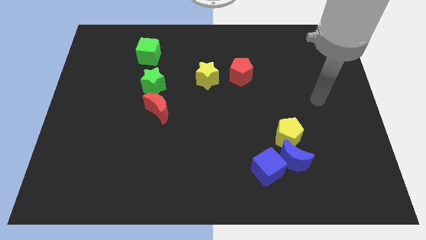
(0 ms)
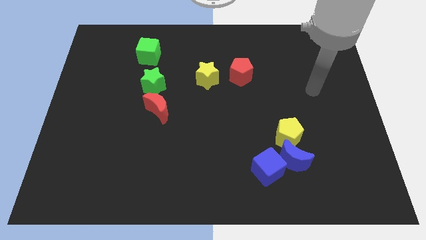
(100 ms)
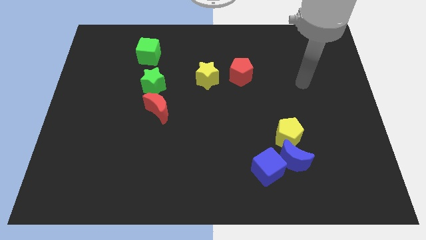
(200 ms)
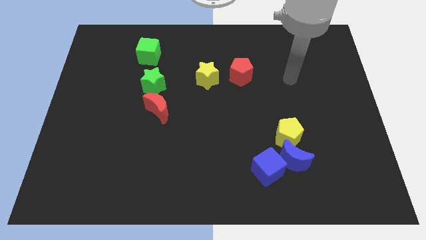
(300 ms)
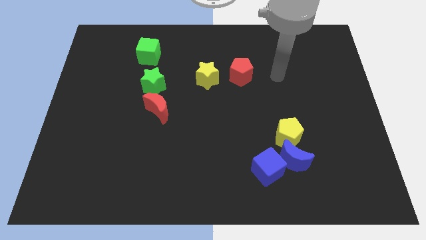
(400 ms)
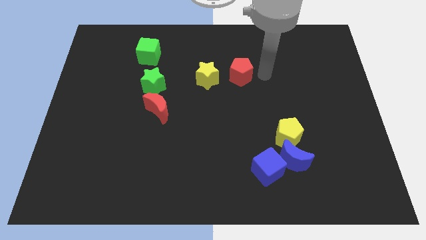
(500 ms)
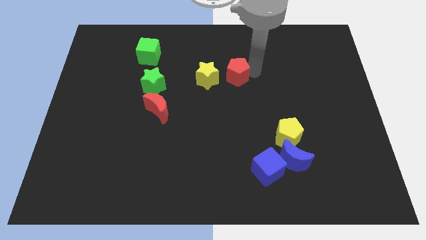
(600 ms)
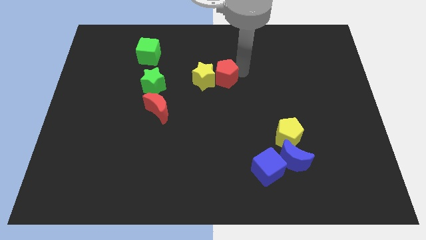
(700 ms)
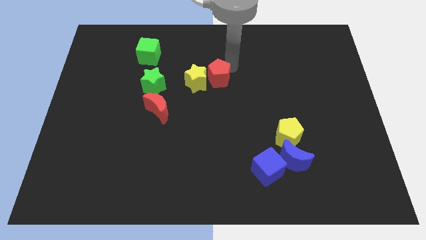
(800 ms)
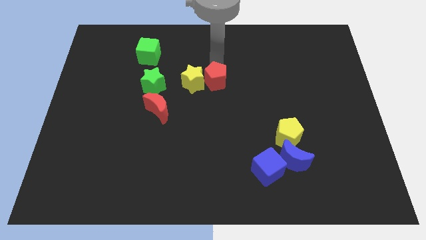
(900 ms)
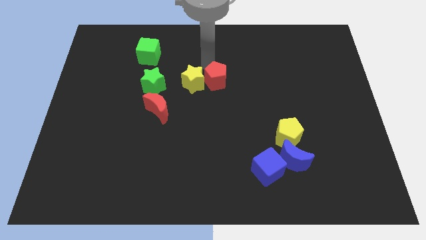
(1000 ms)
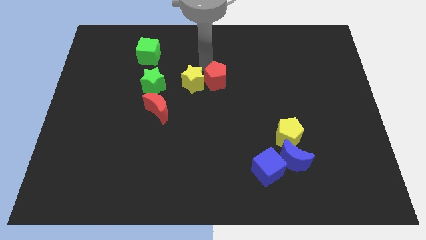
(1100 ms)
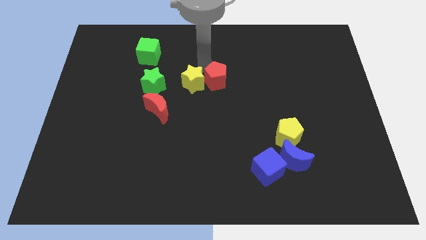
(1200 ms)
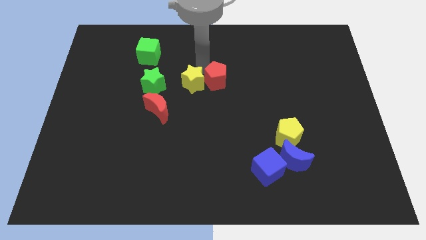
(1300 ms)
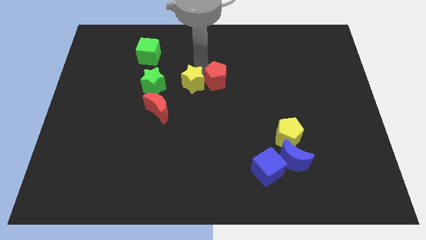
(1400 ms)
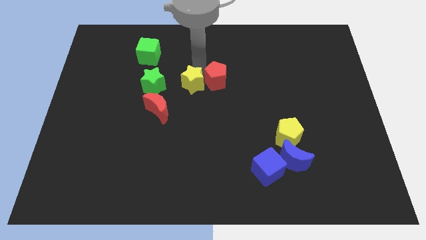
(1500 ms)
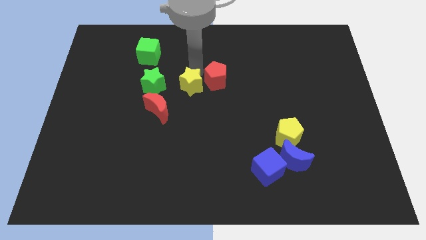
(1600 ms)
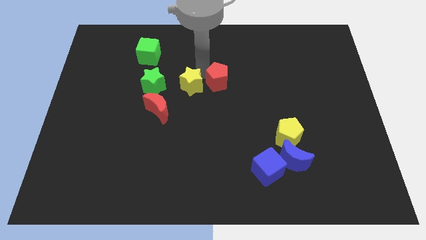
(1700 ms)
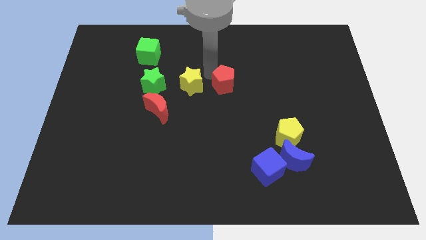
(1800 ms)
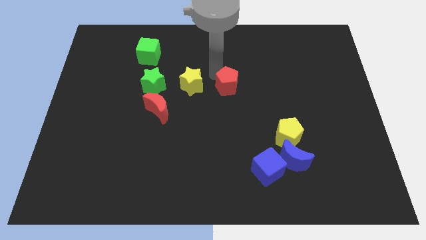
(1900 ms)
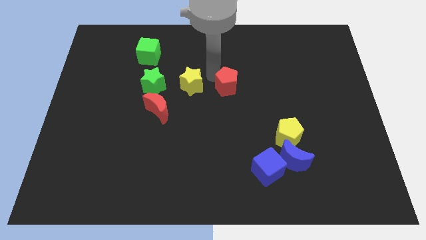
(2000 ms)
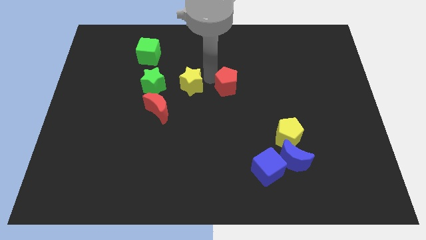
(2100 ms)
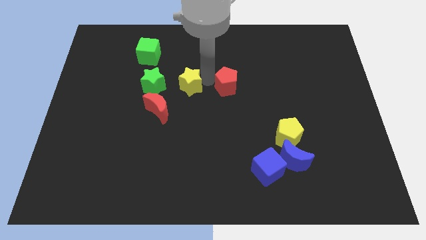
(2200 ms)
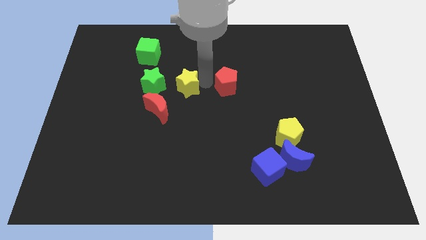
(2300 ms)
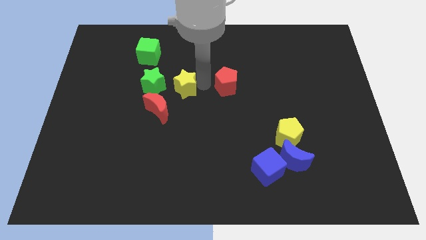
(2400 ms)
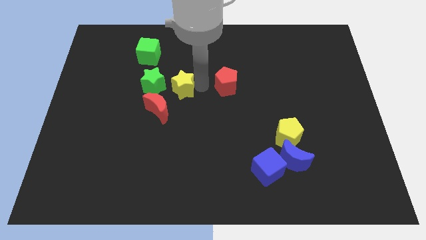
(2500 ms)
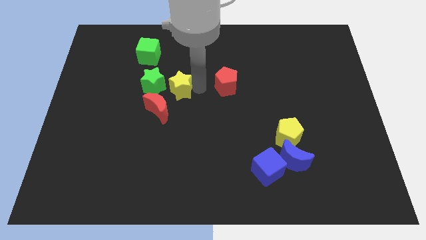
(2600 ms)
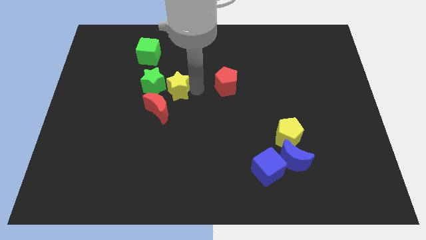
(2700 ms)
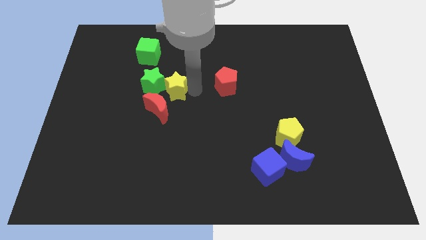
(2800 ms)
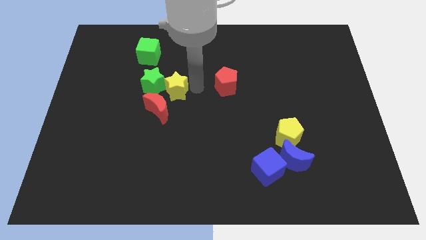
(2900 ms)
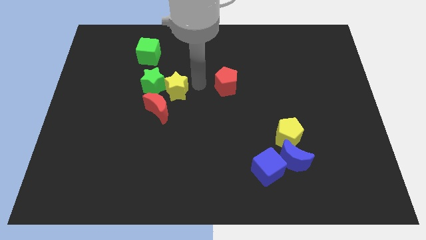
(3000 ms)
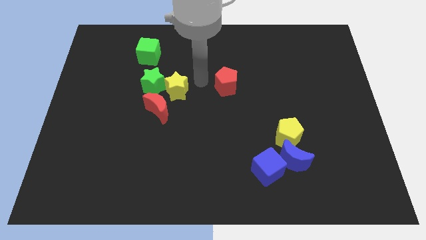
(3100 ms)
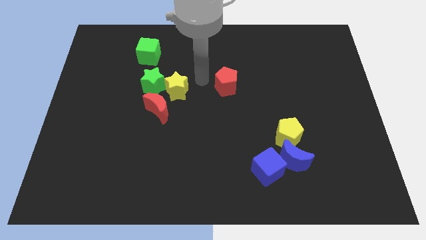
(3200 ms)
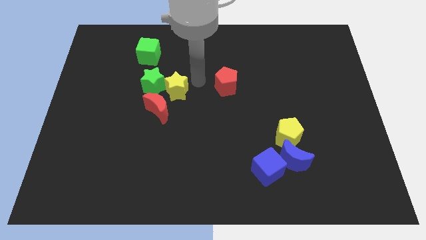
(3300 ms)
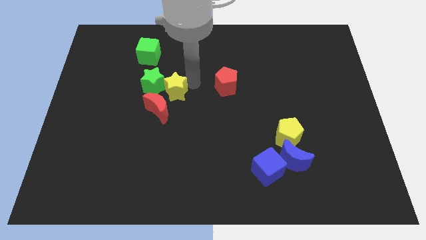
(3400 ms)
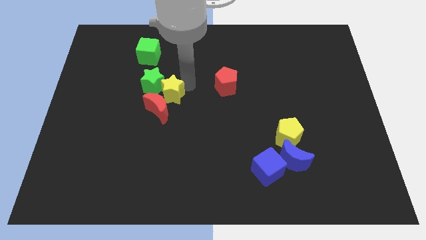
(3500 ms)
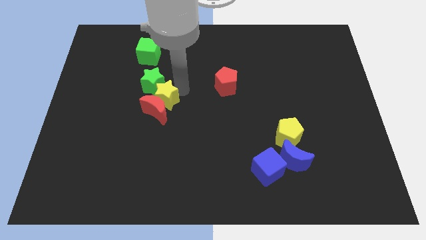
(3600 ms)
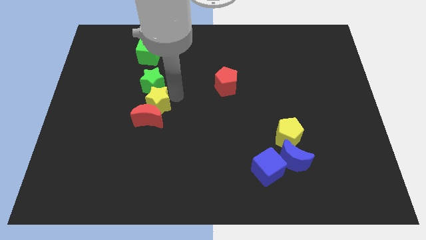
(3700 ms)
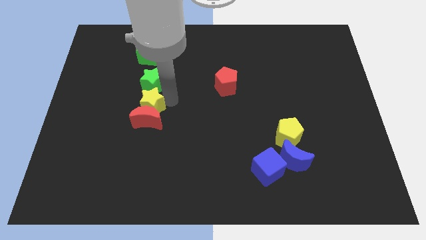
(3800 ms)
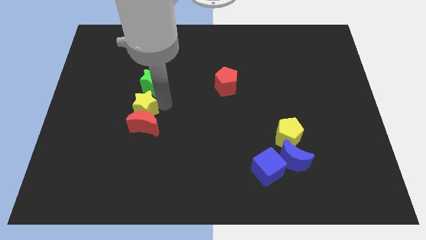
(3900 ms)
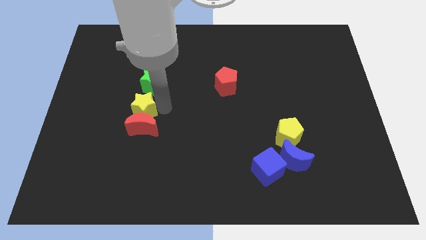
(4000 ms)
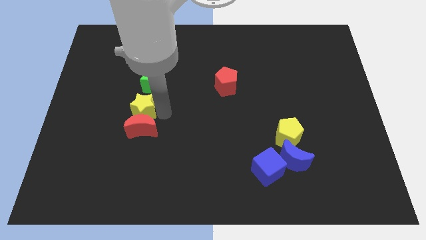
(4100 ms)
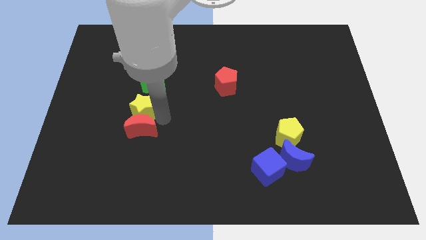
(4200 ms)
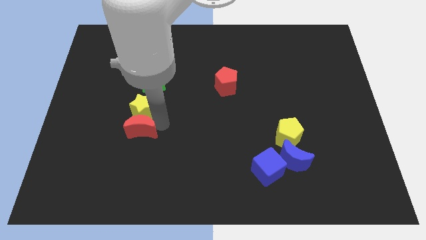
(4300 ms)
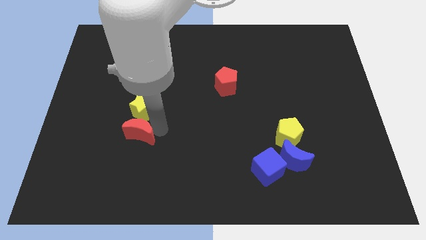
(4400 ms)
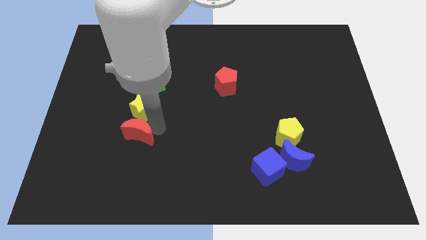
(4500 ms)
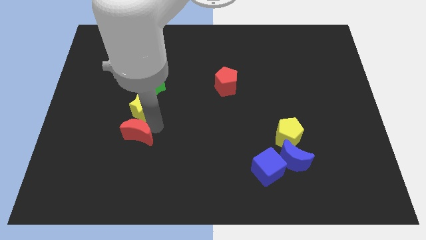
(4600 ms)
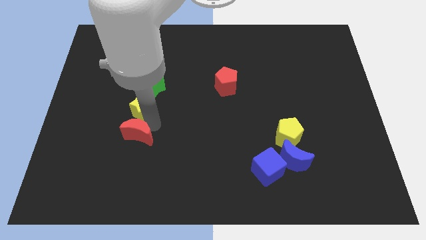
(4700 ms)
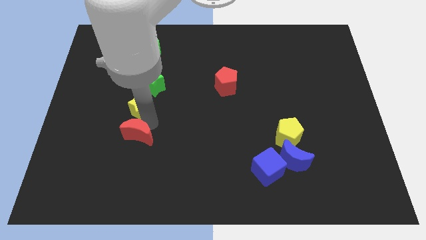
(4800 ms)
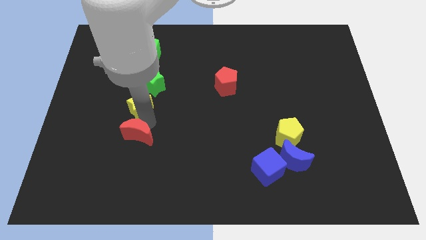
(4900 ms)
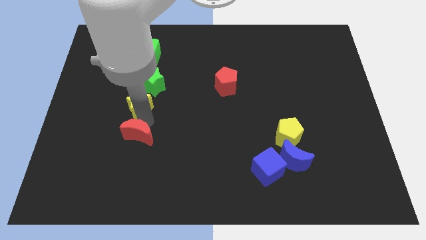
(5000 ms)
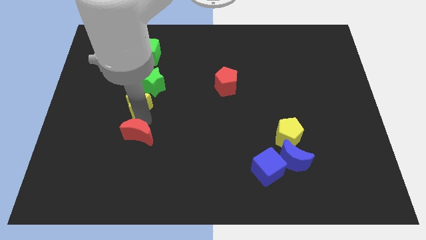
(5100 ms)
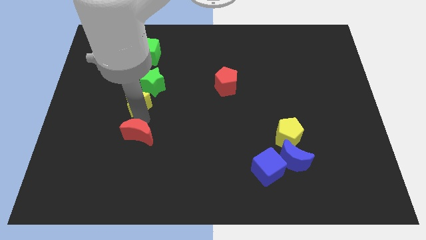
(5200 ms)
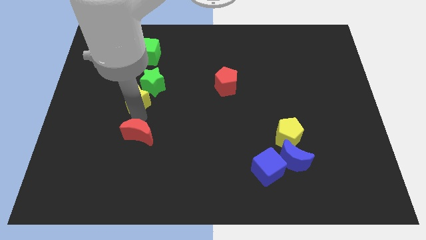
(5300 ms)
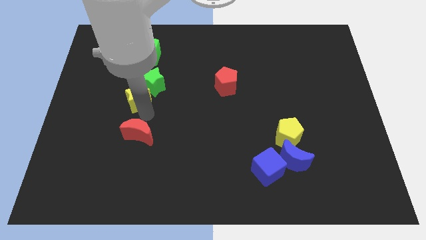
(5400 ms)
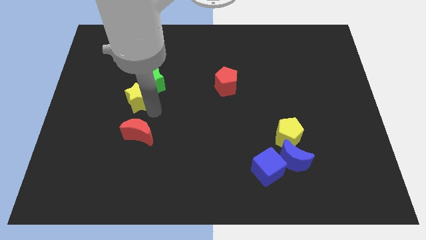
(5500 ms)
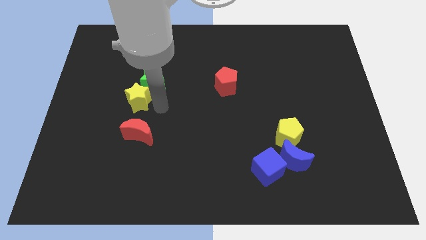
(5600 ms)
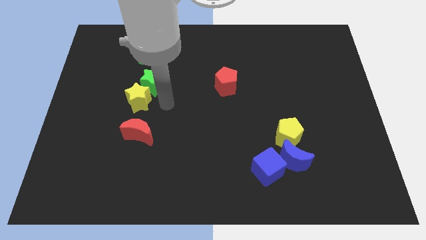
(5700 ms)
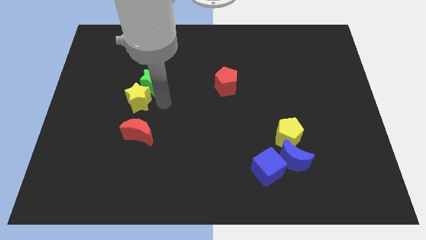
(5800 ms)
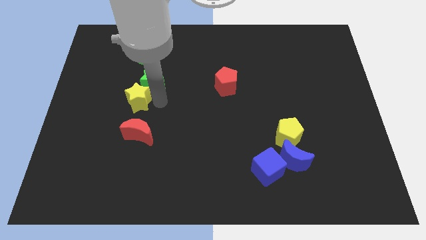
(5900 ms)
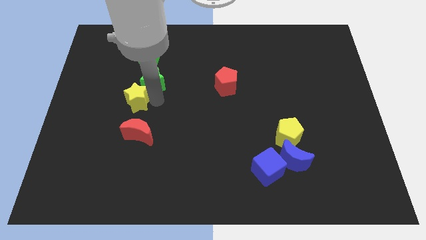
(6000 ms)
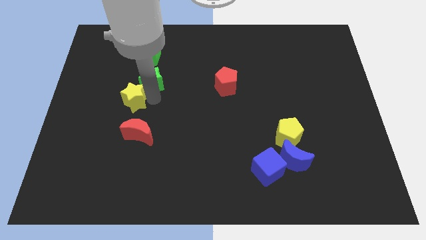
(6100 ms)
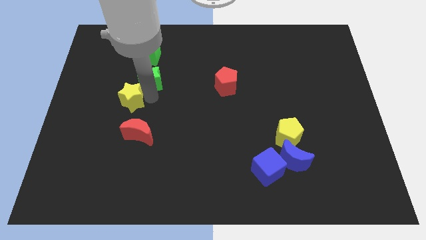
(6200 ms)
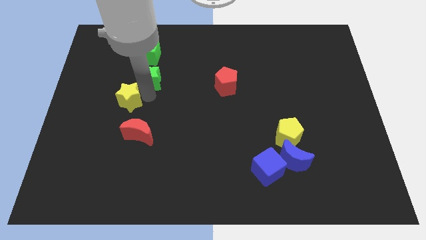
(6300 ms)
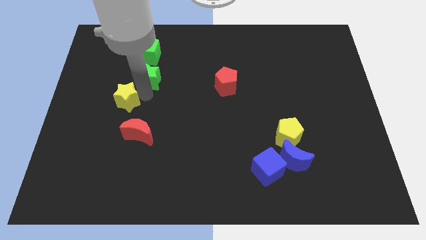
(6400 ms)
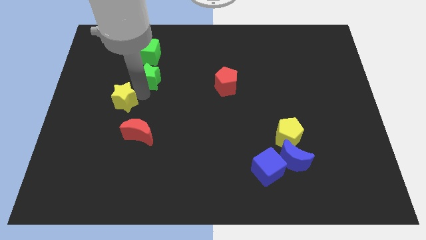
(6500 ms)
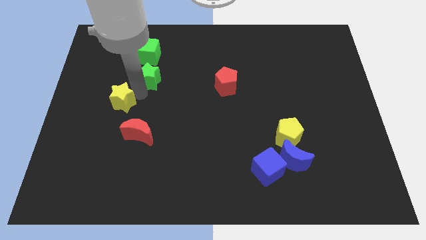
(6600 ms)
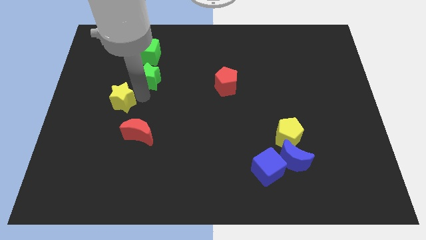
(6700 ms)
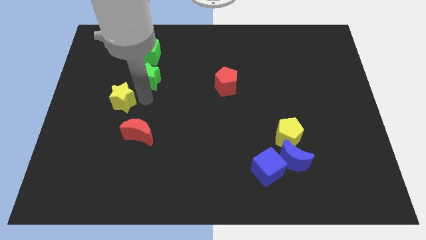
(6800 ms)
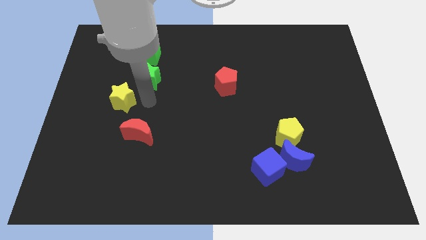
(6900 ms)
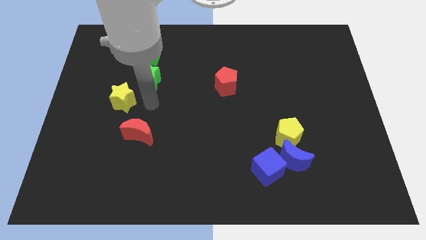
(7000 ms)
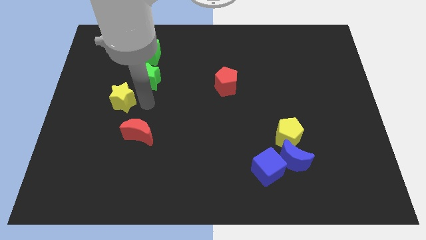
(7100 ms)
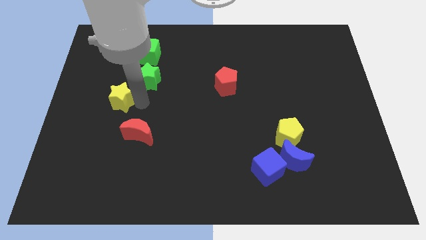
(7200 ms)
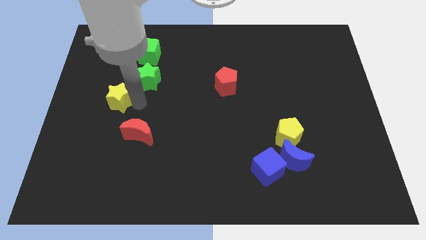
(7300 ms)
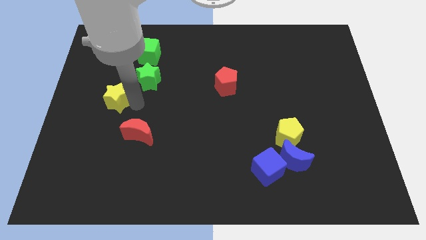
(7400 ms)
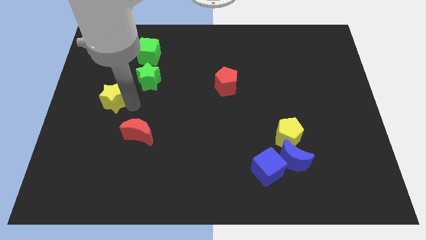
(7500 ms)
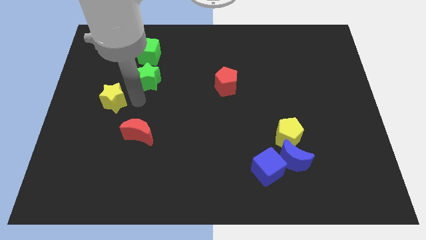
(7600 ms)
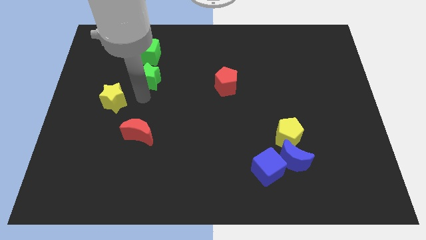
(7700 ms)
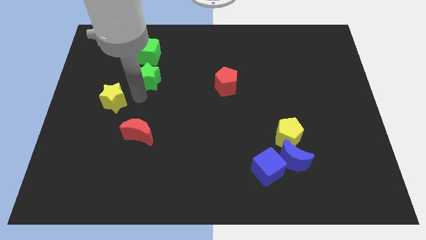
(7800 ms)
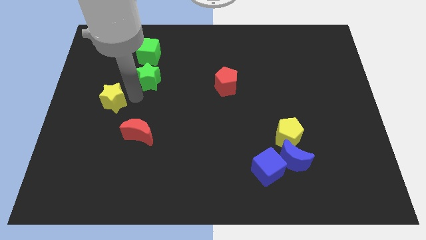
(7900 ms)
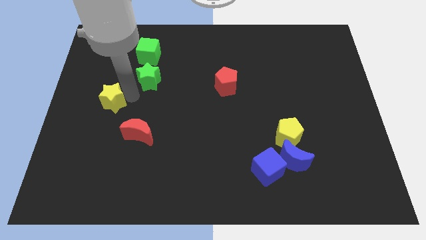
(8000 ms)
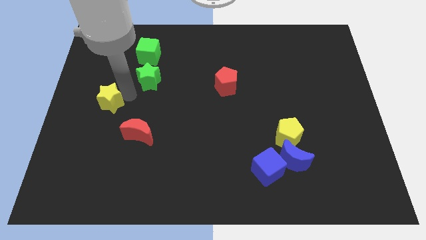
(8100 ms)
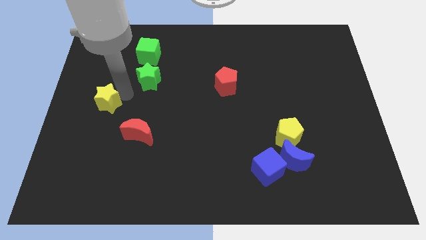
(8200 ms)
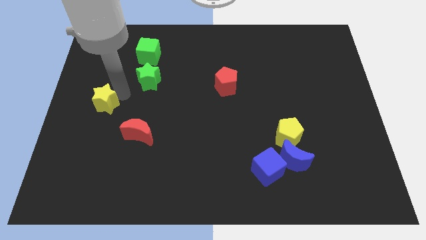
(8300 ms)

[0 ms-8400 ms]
push the yellow star to the left side
